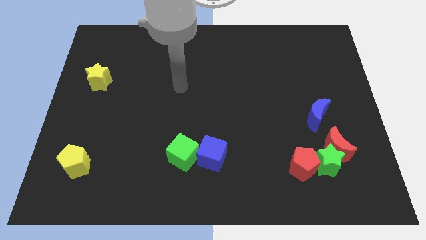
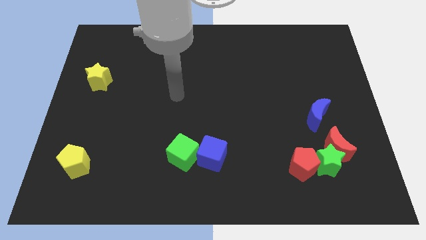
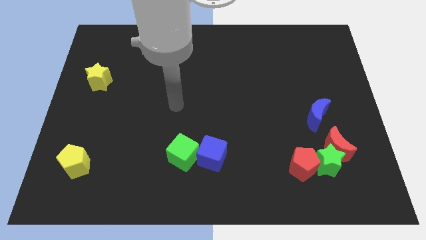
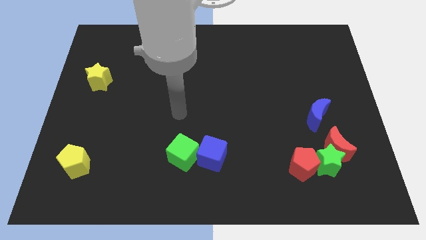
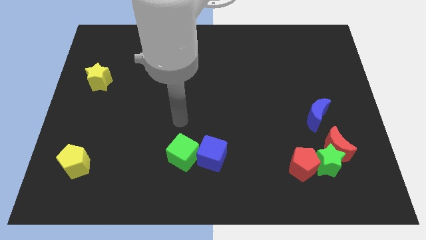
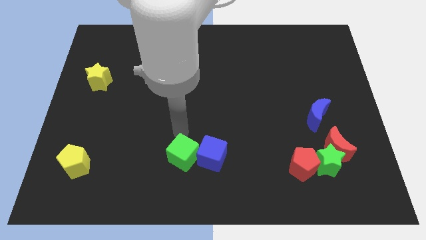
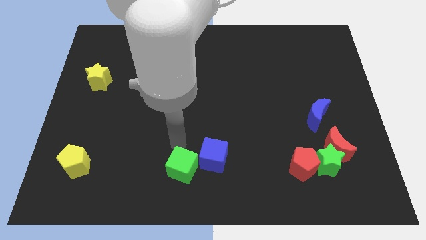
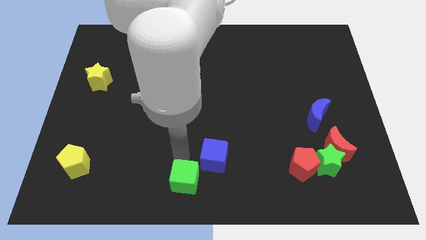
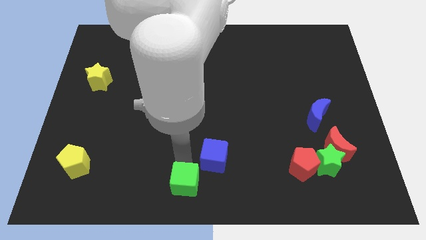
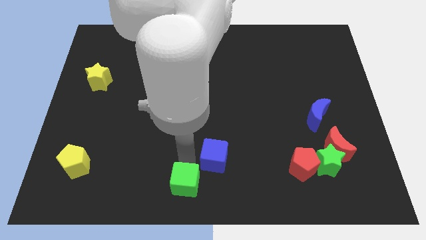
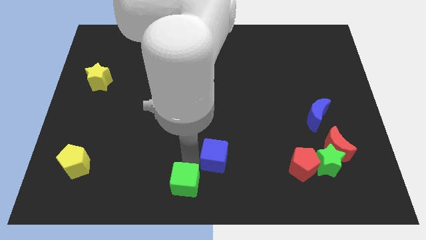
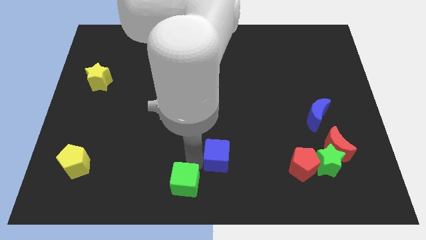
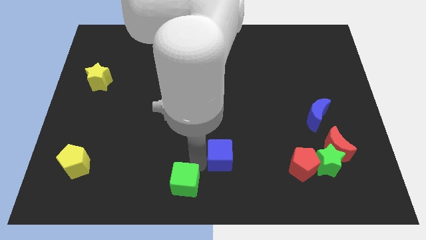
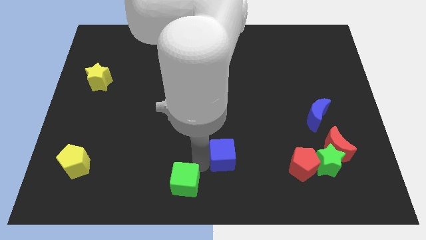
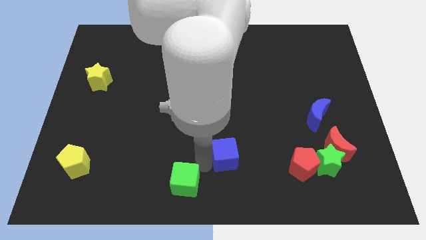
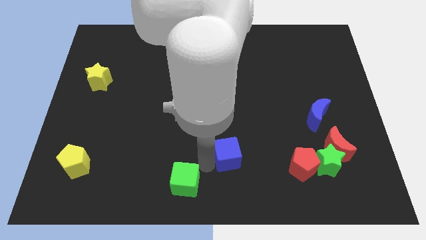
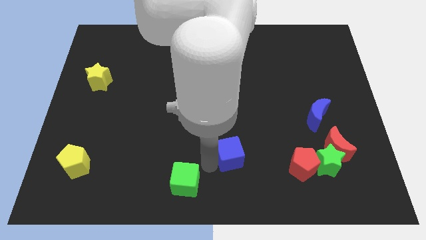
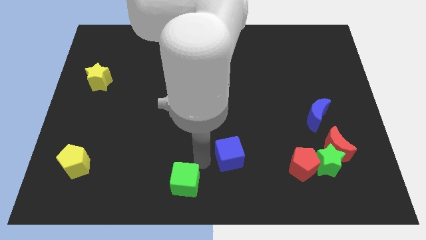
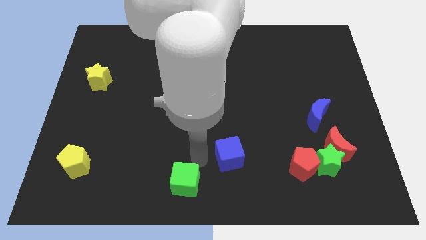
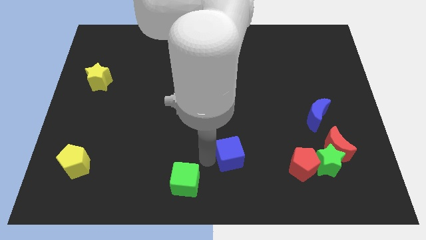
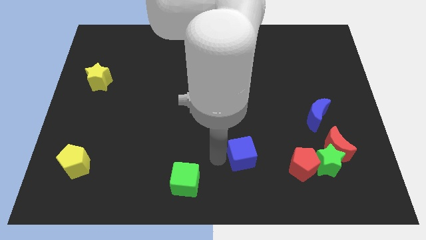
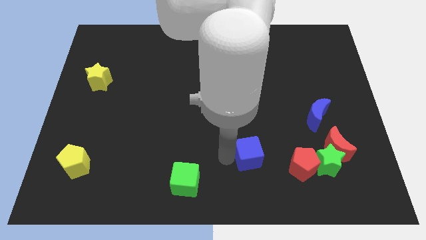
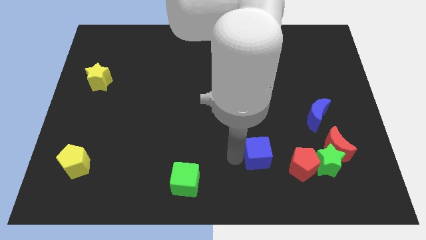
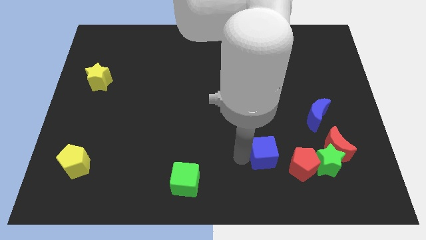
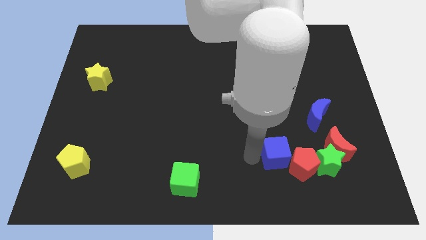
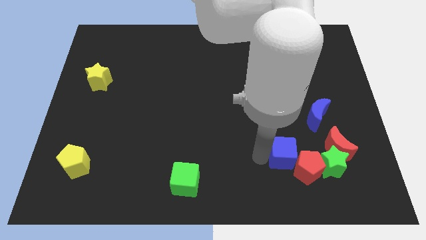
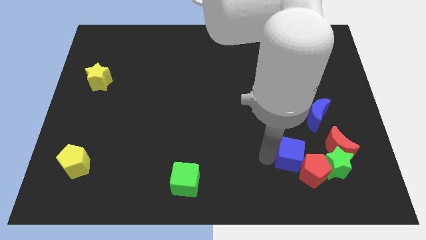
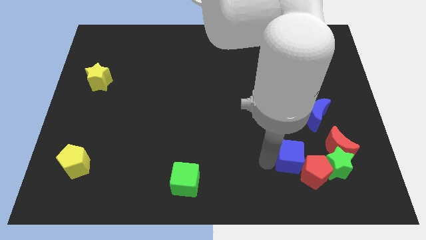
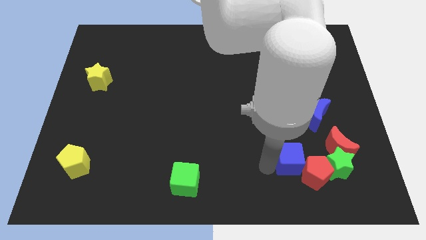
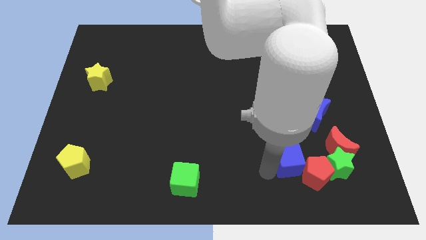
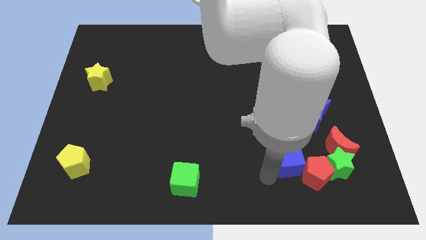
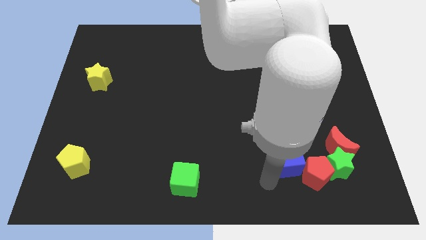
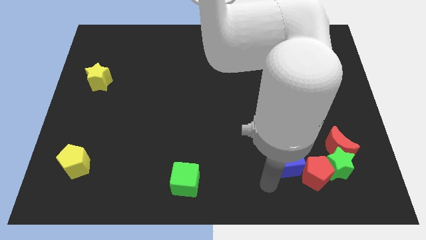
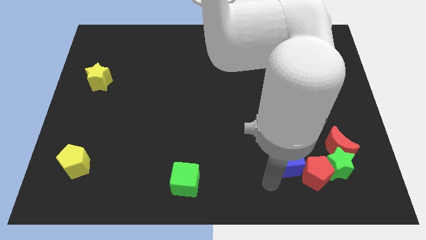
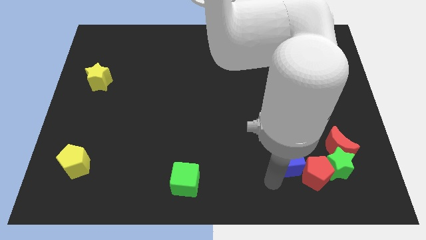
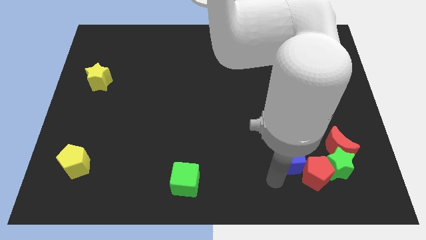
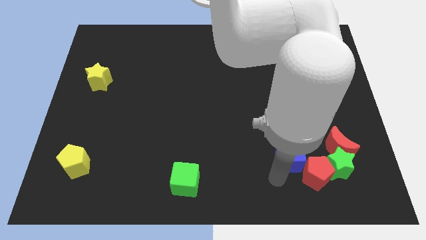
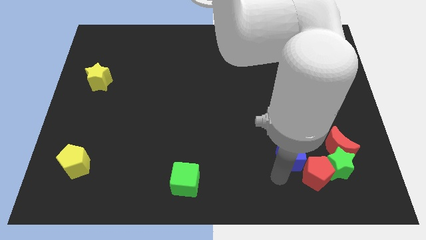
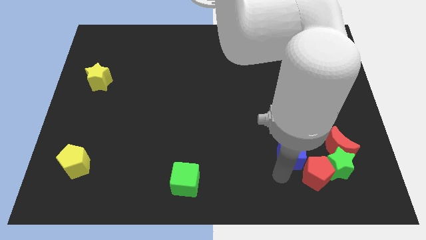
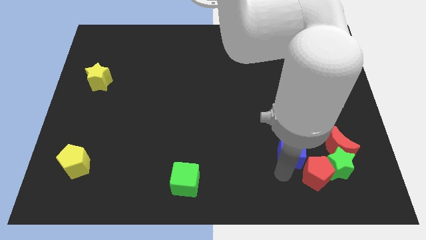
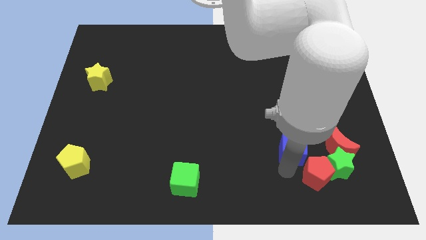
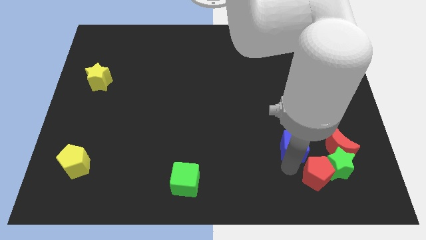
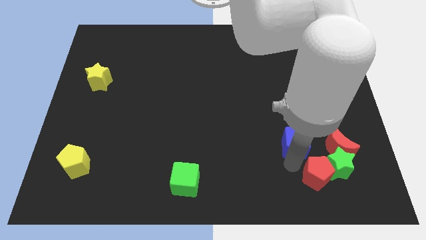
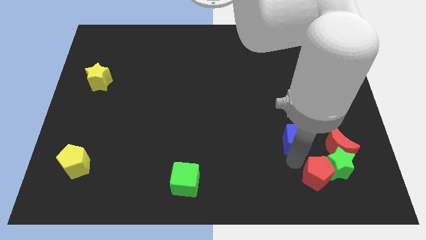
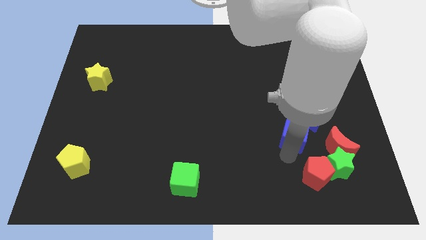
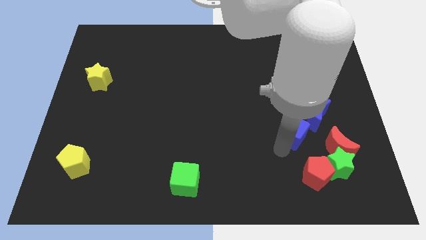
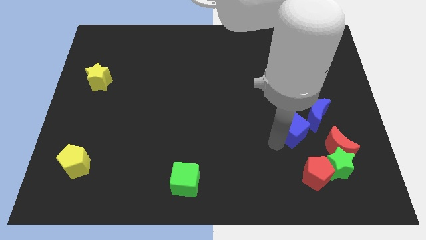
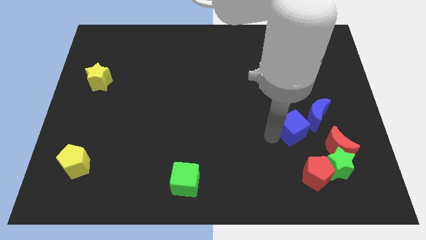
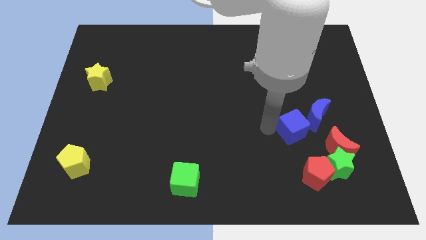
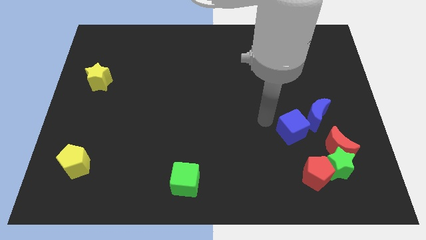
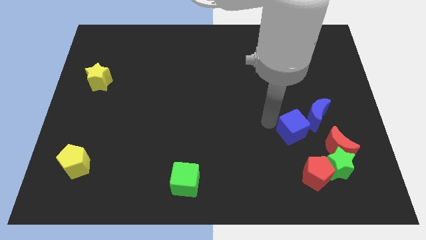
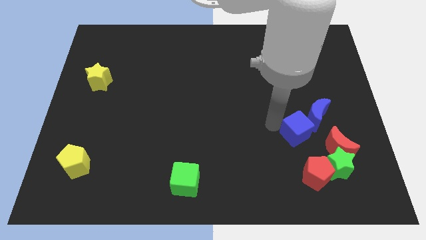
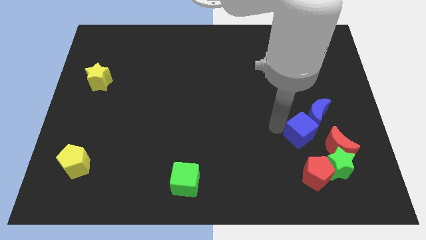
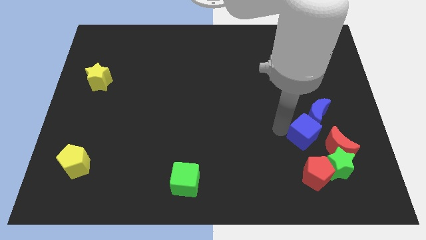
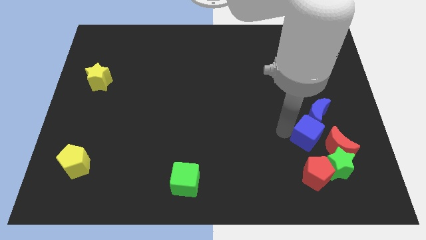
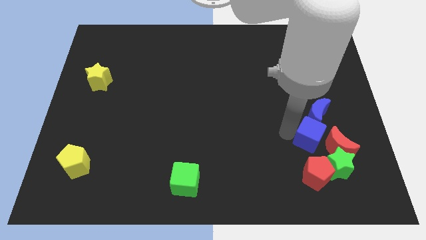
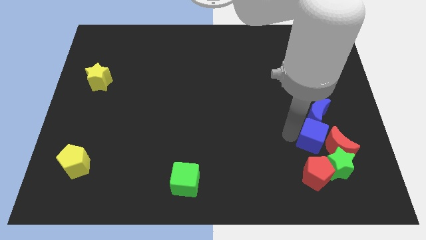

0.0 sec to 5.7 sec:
push the blue cube next to the red moon

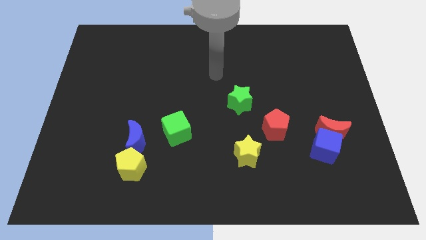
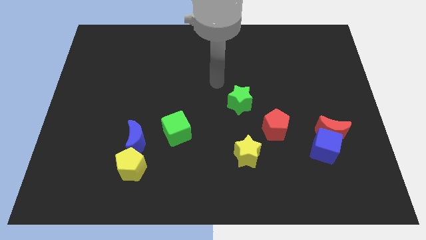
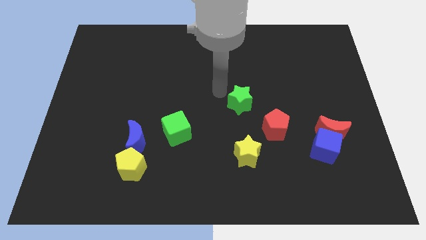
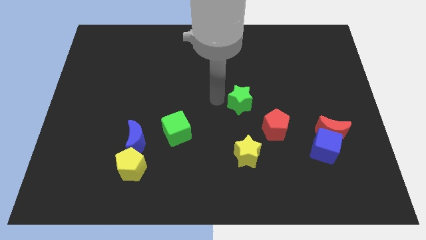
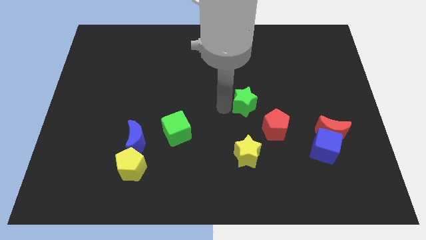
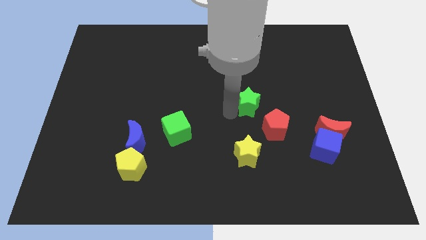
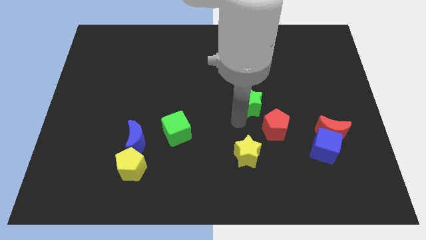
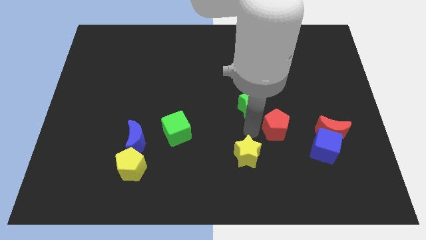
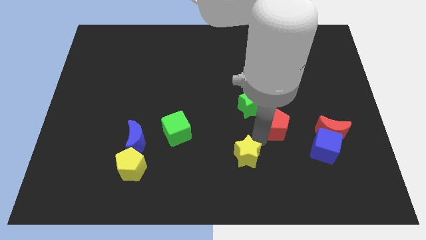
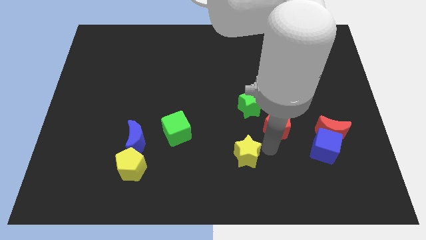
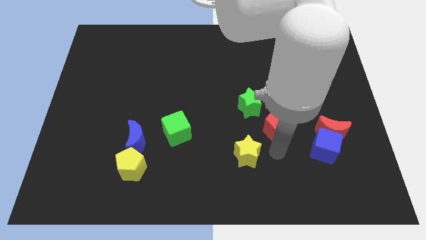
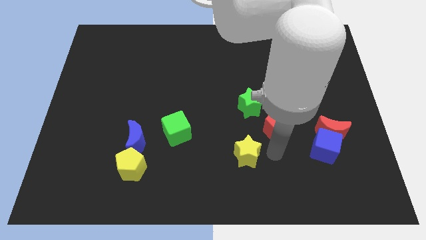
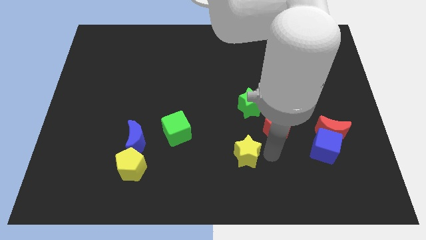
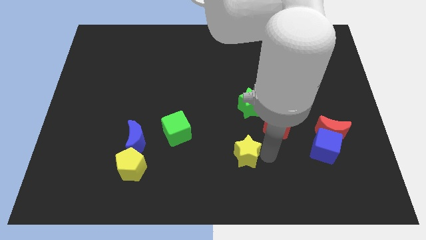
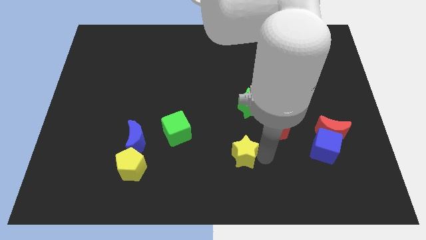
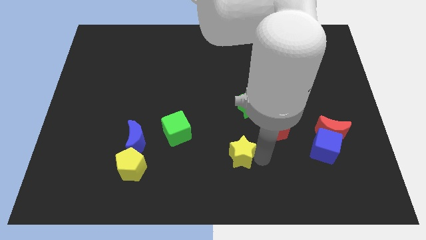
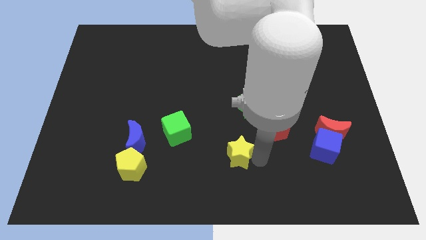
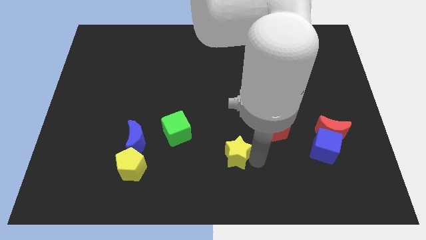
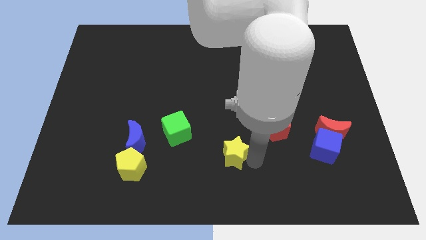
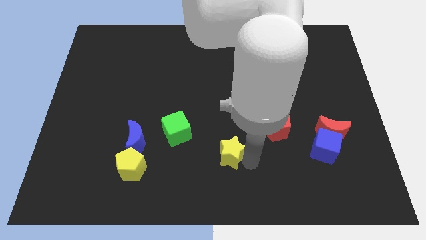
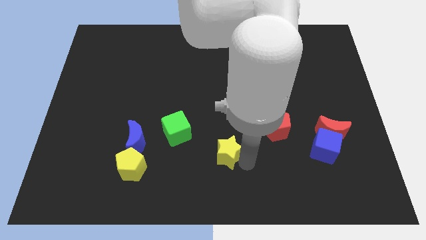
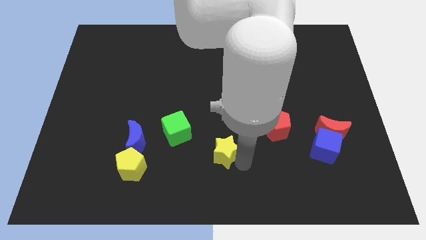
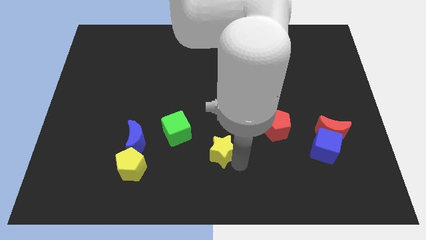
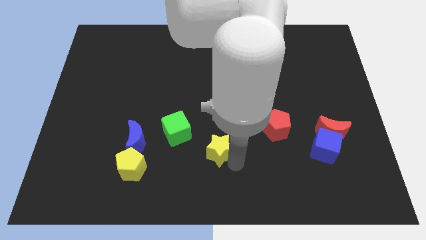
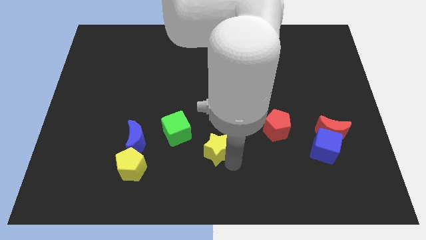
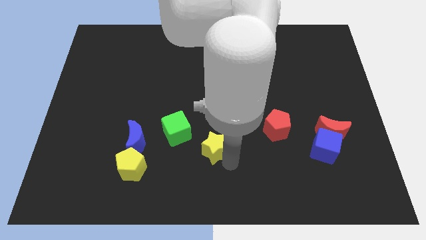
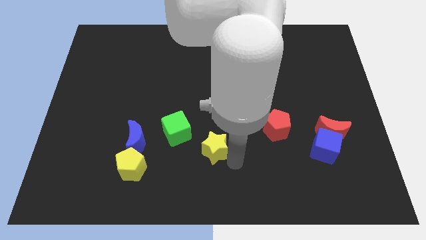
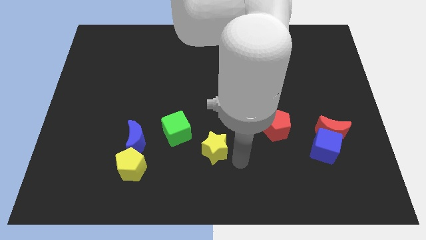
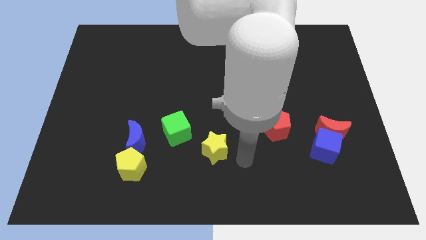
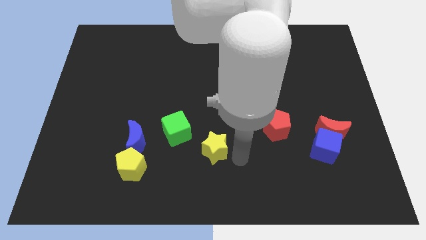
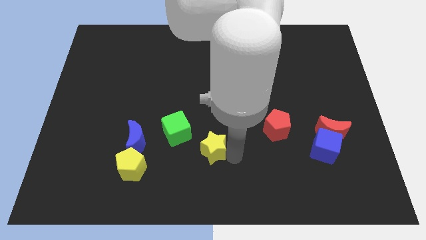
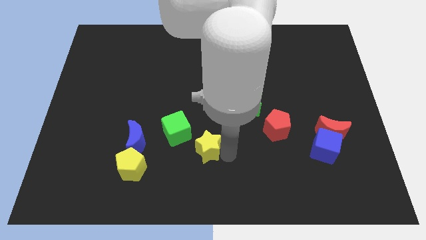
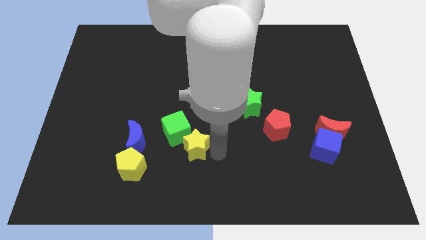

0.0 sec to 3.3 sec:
move the yellow star next to the green cube
